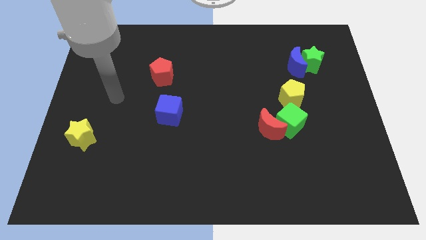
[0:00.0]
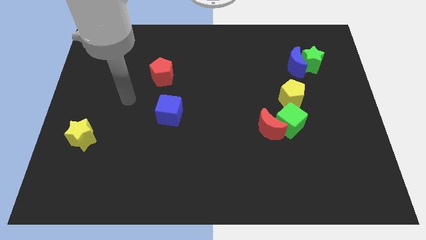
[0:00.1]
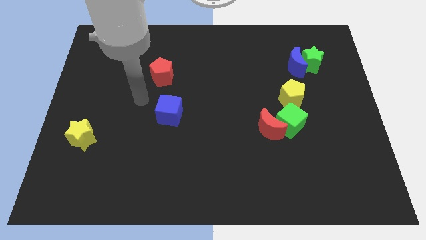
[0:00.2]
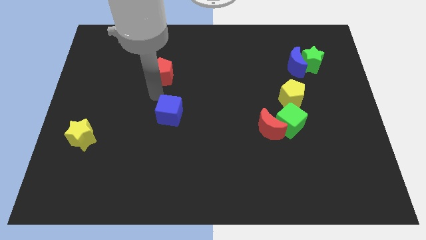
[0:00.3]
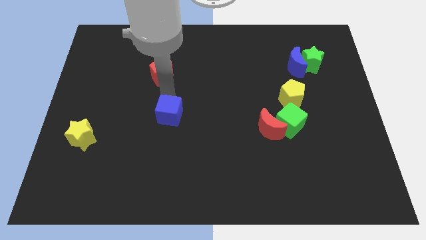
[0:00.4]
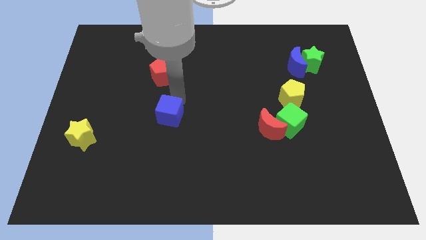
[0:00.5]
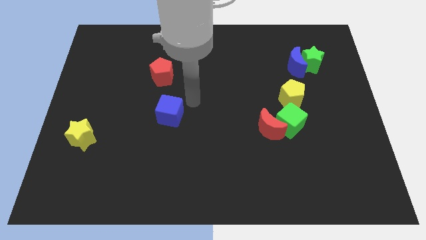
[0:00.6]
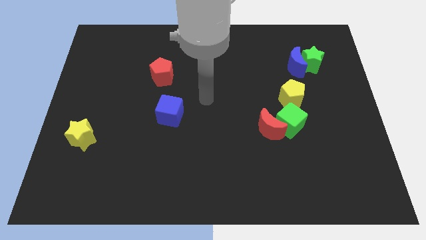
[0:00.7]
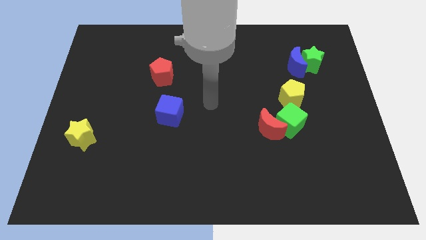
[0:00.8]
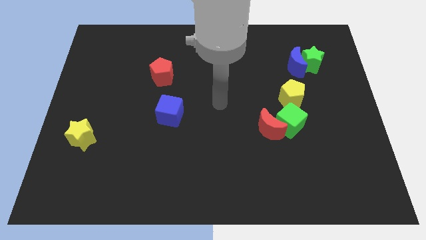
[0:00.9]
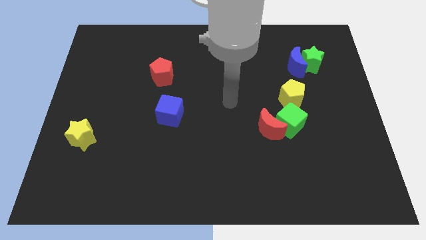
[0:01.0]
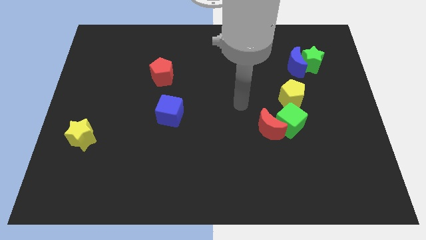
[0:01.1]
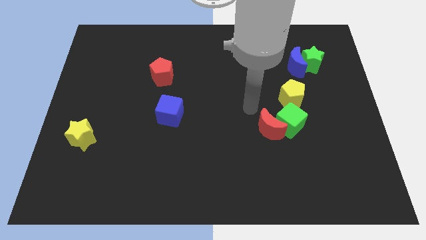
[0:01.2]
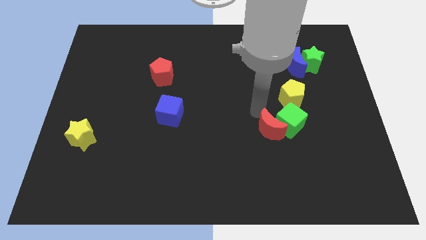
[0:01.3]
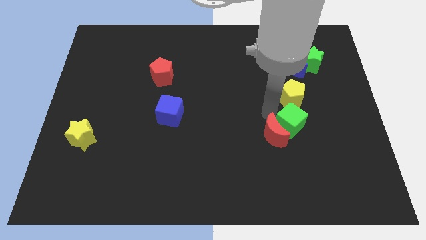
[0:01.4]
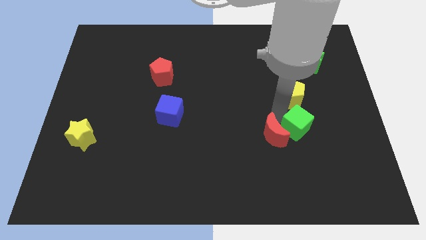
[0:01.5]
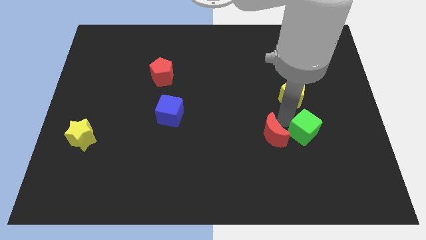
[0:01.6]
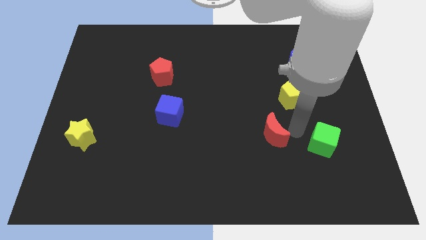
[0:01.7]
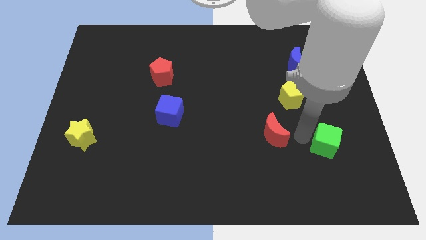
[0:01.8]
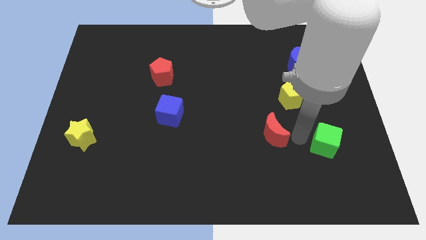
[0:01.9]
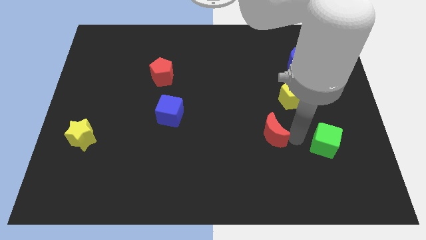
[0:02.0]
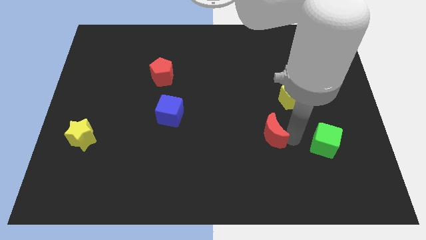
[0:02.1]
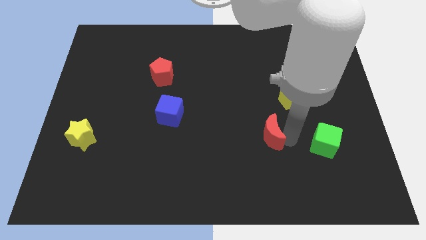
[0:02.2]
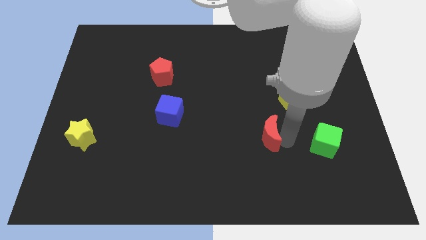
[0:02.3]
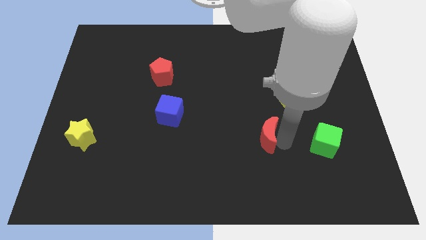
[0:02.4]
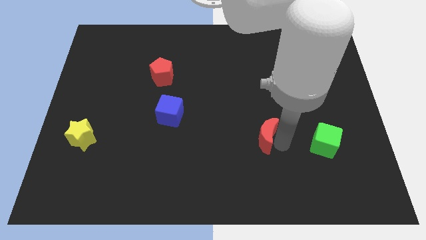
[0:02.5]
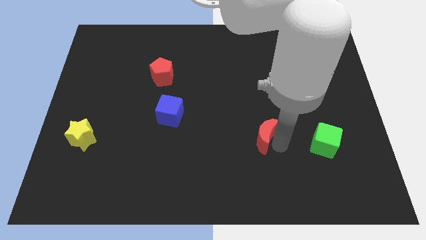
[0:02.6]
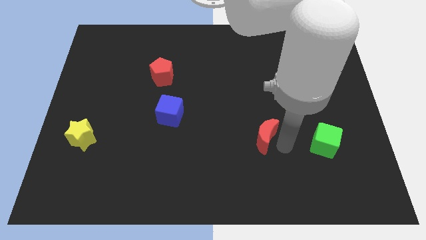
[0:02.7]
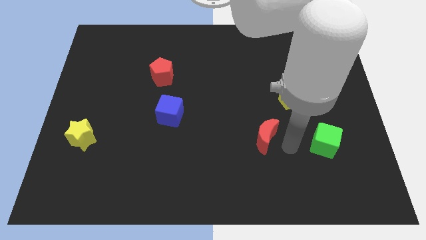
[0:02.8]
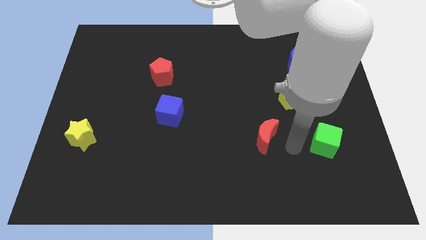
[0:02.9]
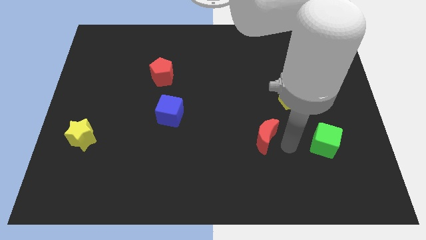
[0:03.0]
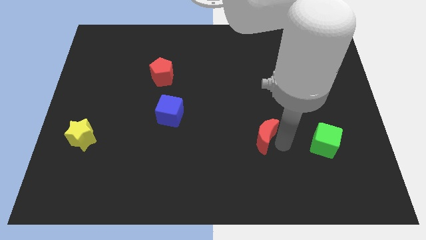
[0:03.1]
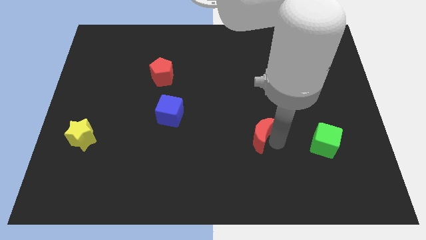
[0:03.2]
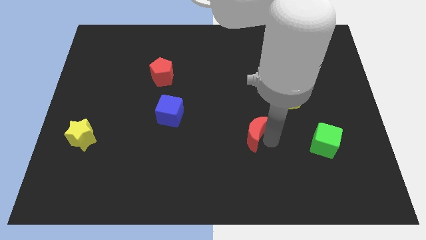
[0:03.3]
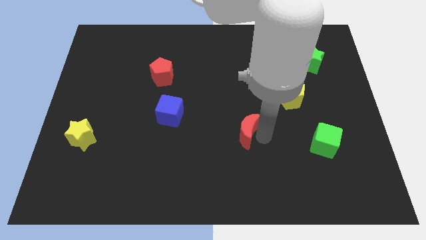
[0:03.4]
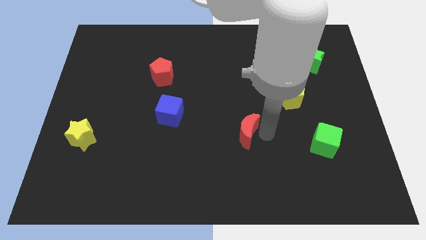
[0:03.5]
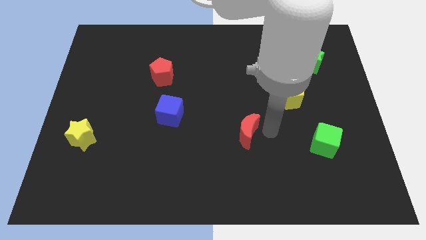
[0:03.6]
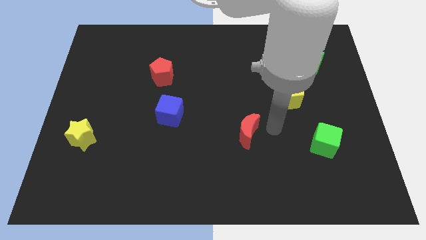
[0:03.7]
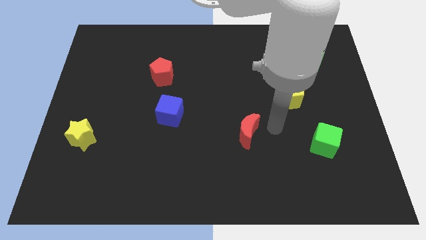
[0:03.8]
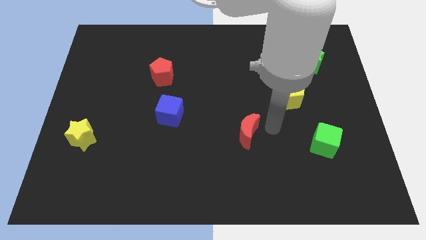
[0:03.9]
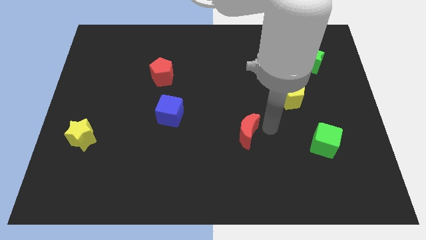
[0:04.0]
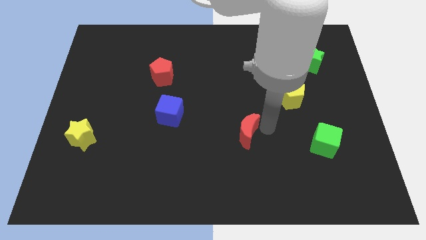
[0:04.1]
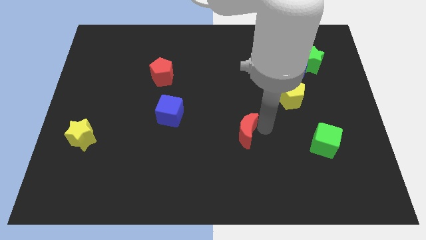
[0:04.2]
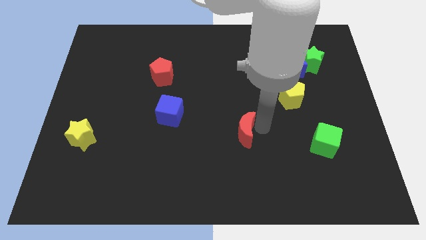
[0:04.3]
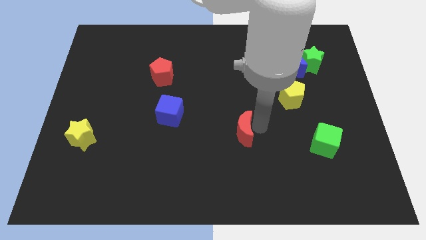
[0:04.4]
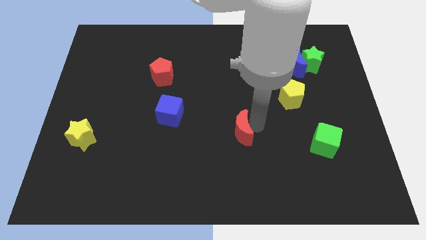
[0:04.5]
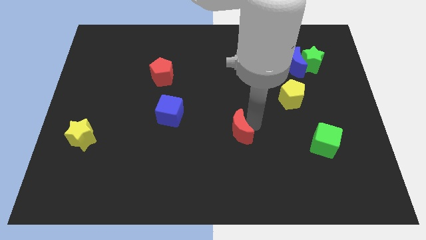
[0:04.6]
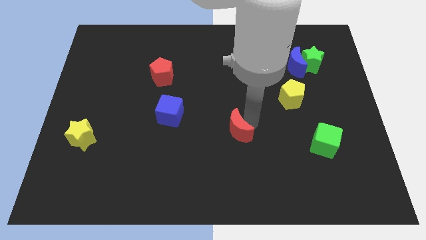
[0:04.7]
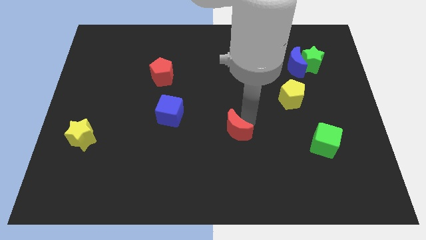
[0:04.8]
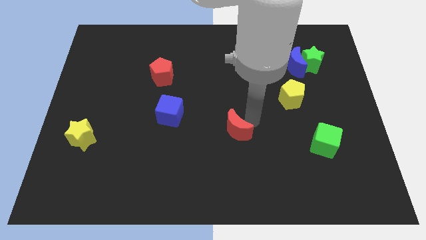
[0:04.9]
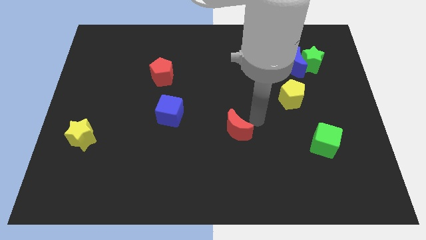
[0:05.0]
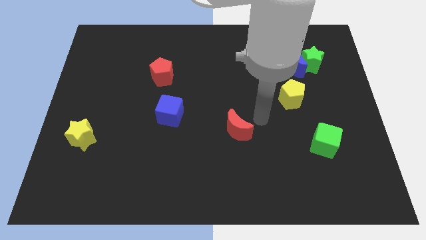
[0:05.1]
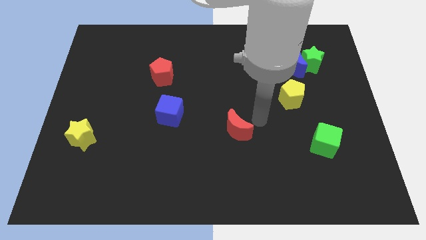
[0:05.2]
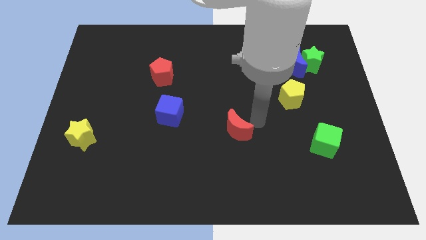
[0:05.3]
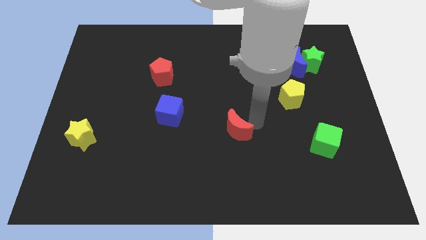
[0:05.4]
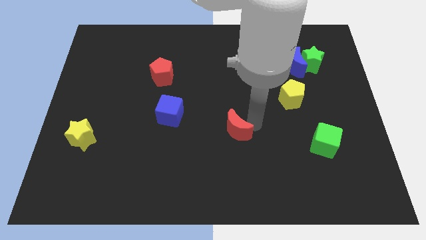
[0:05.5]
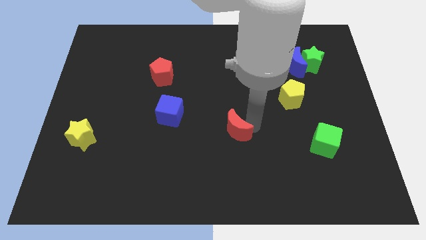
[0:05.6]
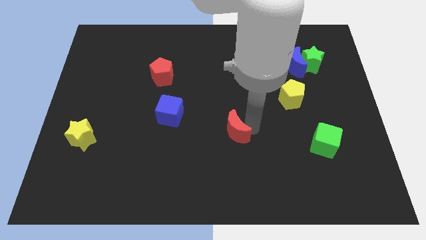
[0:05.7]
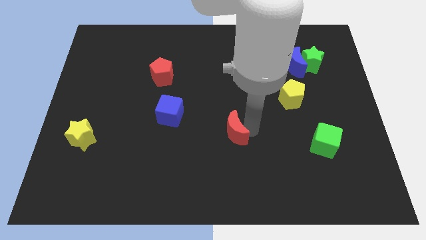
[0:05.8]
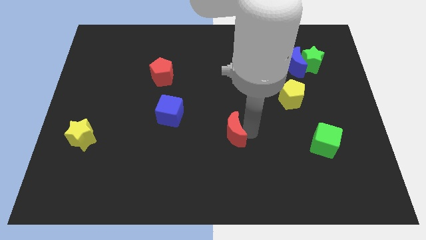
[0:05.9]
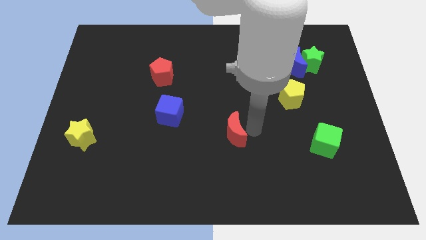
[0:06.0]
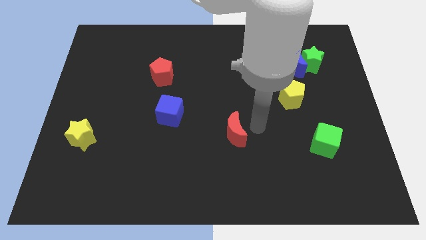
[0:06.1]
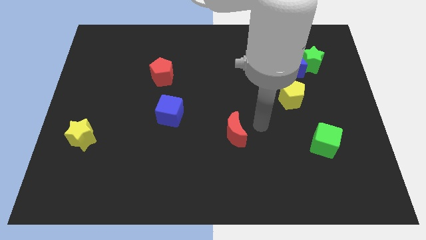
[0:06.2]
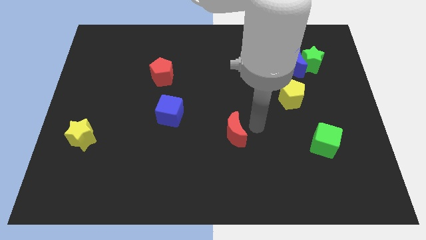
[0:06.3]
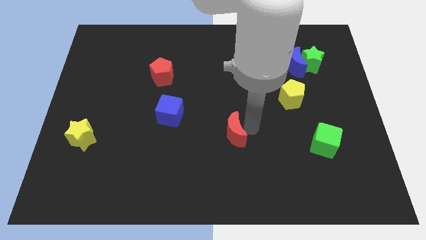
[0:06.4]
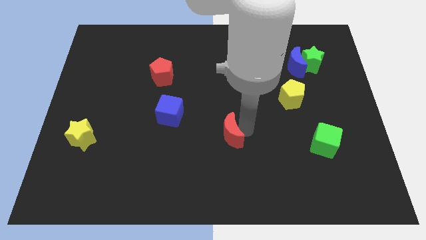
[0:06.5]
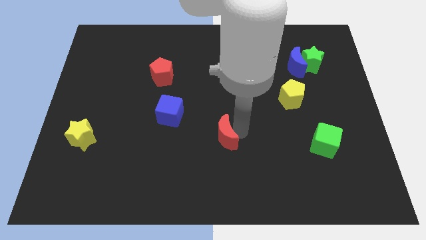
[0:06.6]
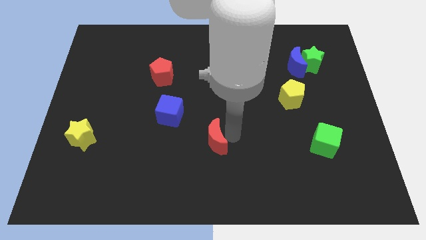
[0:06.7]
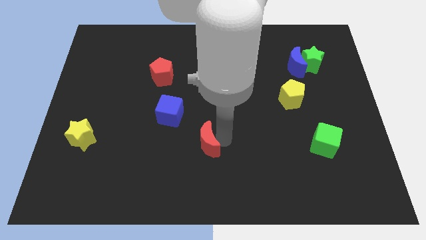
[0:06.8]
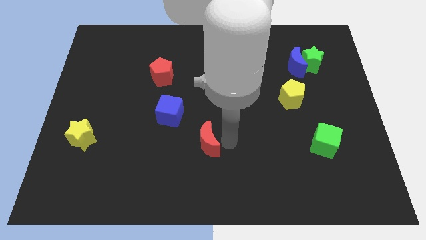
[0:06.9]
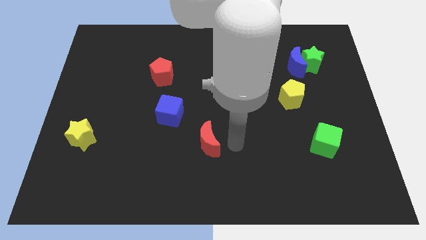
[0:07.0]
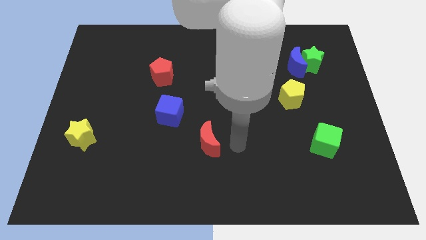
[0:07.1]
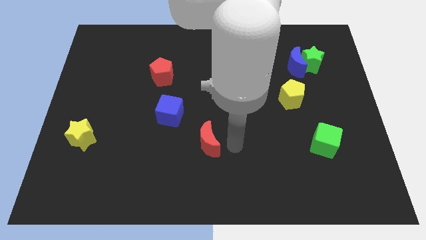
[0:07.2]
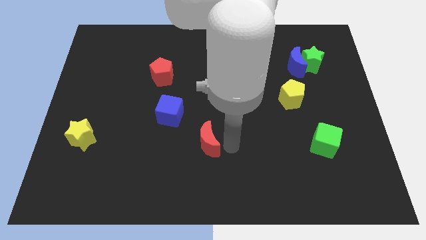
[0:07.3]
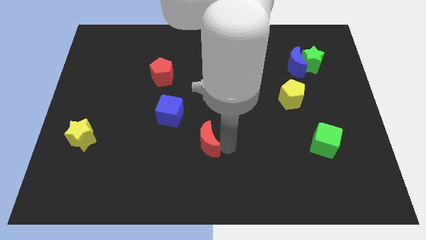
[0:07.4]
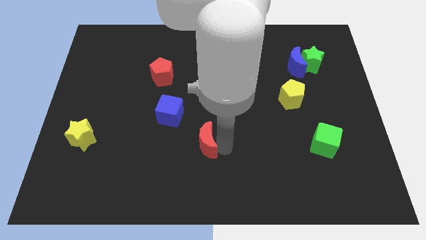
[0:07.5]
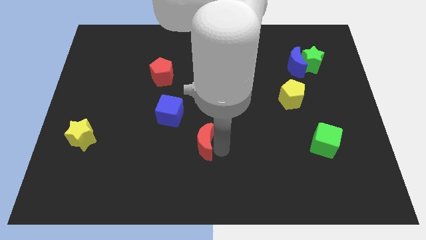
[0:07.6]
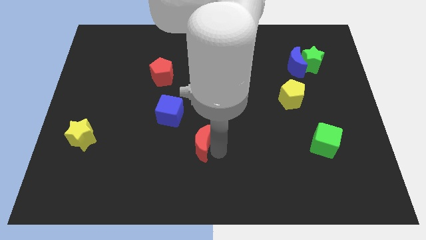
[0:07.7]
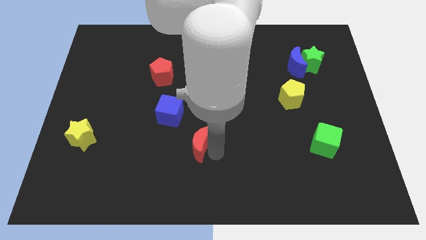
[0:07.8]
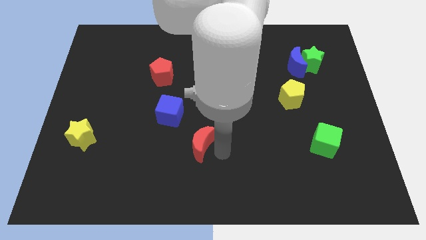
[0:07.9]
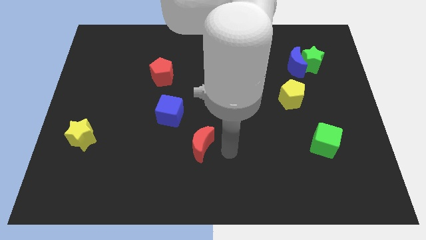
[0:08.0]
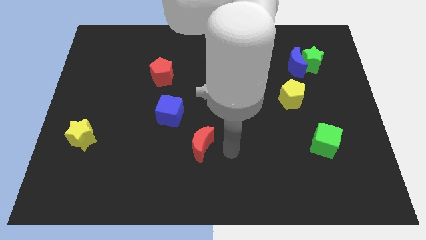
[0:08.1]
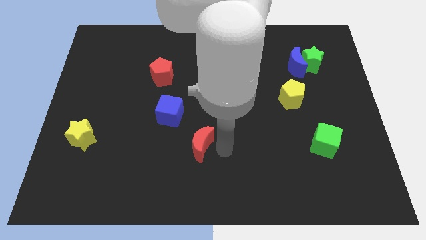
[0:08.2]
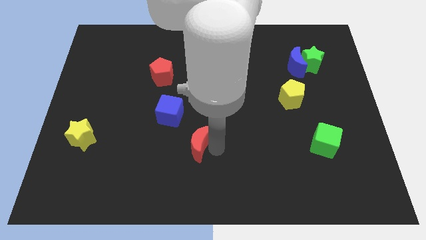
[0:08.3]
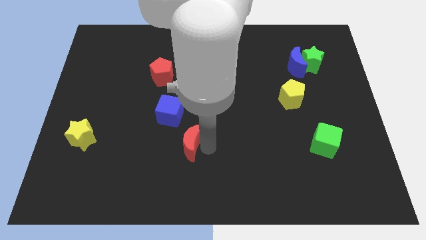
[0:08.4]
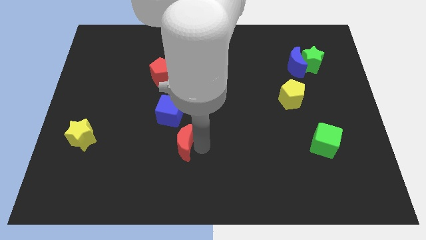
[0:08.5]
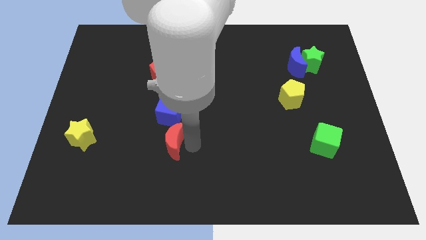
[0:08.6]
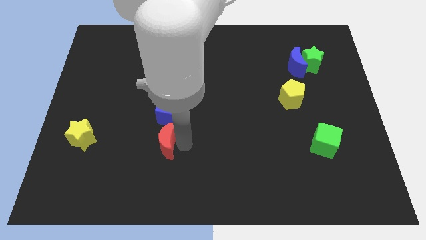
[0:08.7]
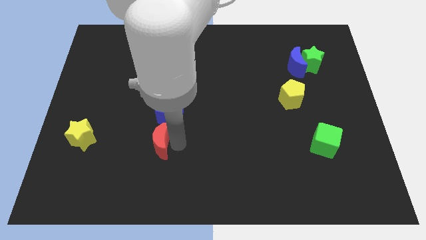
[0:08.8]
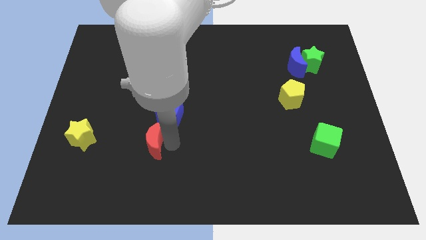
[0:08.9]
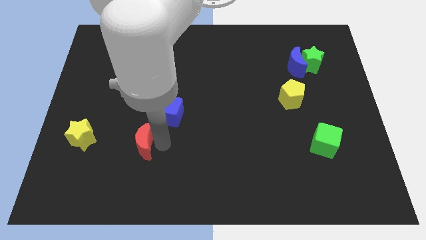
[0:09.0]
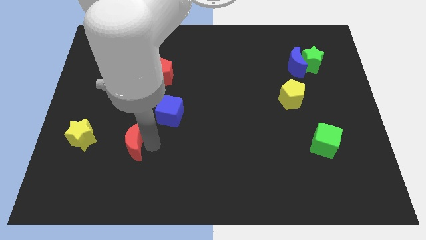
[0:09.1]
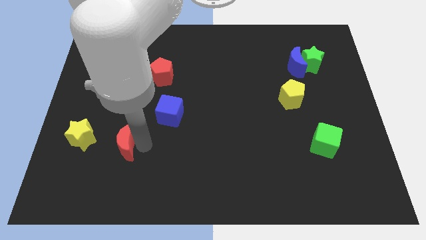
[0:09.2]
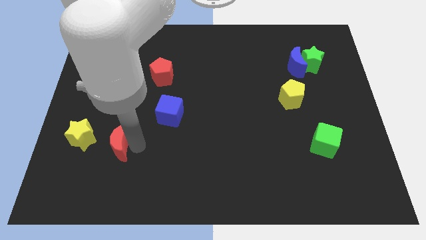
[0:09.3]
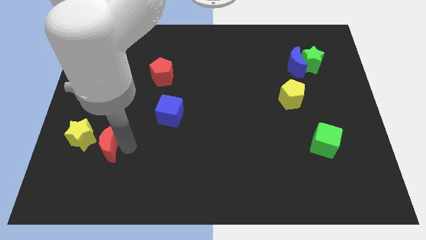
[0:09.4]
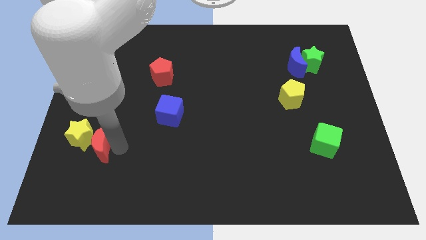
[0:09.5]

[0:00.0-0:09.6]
slide the red moon to the yellow star
